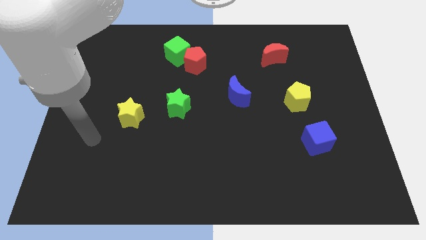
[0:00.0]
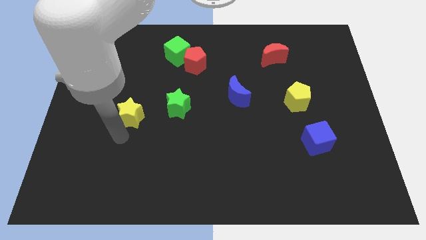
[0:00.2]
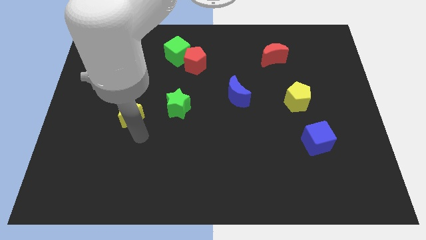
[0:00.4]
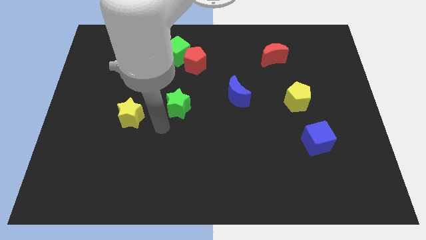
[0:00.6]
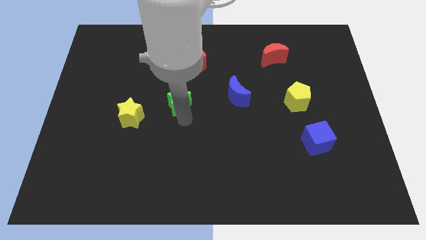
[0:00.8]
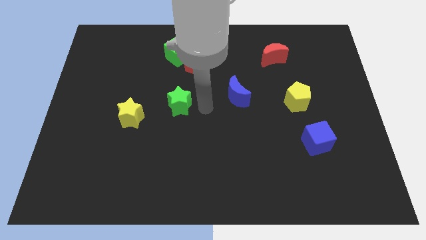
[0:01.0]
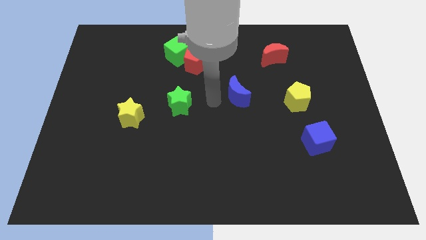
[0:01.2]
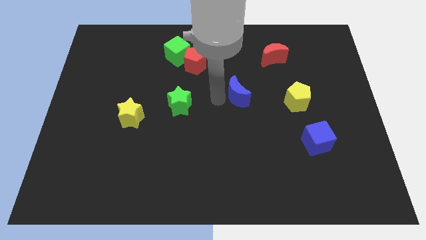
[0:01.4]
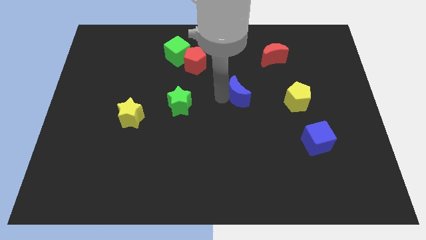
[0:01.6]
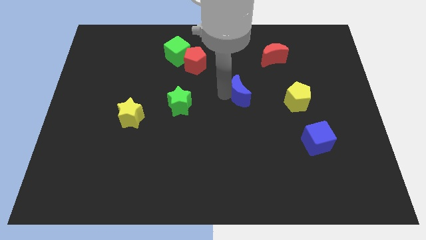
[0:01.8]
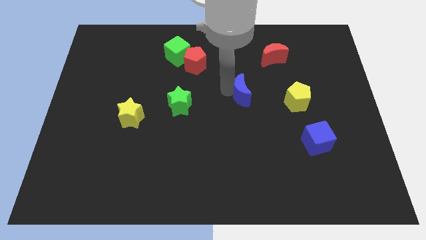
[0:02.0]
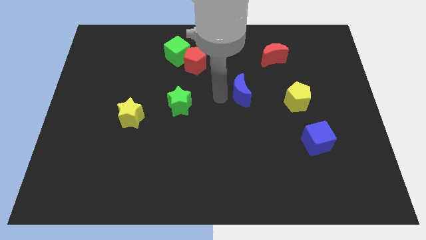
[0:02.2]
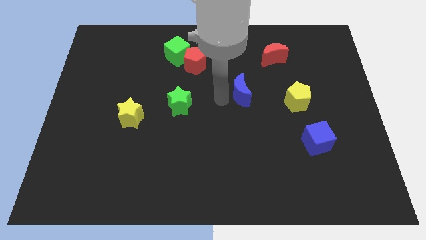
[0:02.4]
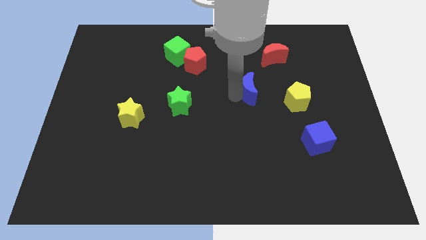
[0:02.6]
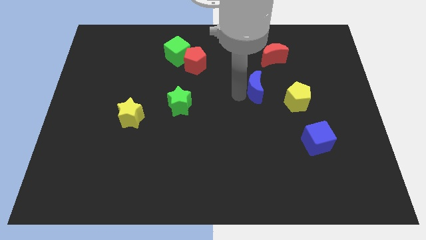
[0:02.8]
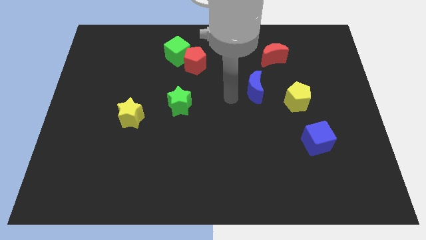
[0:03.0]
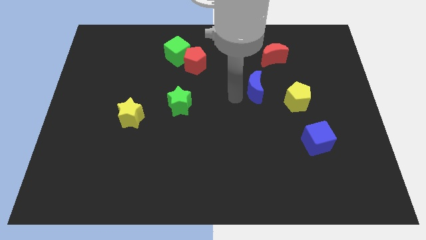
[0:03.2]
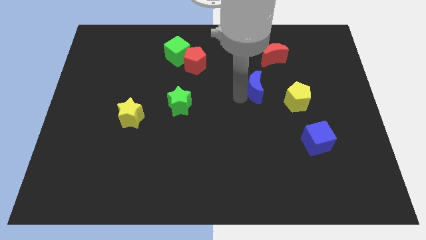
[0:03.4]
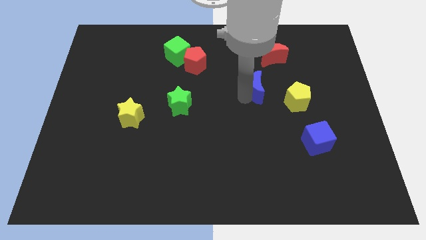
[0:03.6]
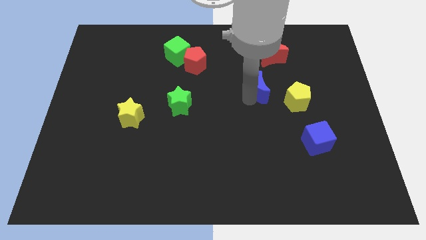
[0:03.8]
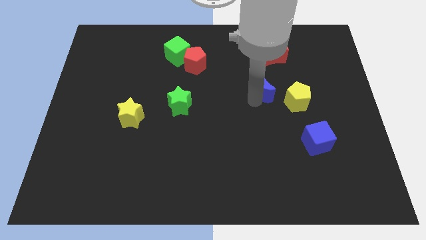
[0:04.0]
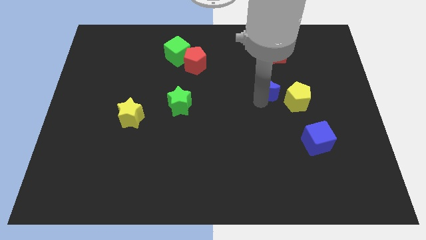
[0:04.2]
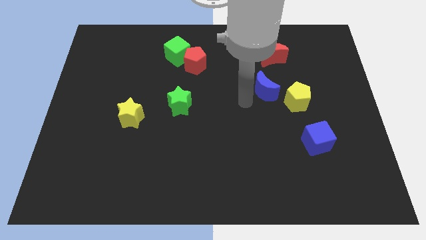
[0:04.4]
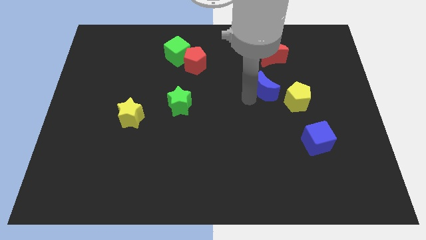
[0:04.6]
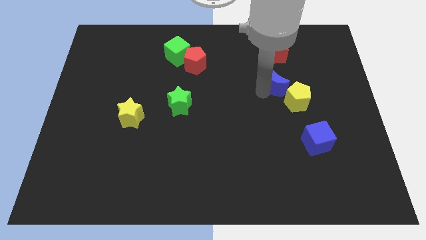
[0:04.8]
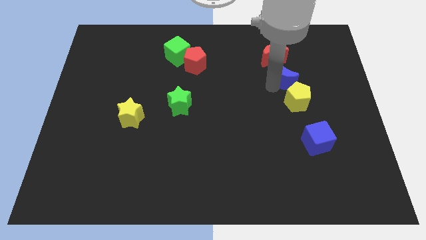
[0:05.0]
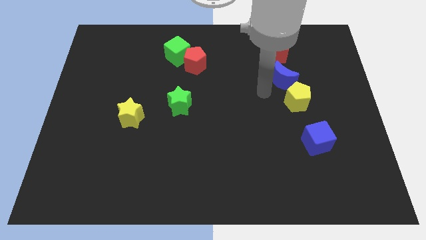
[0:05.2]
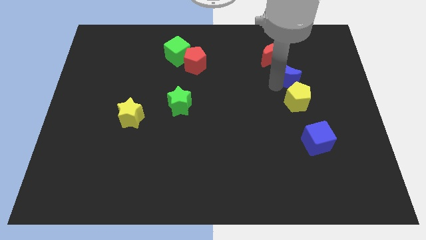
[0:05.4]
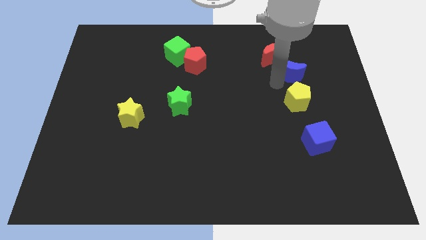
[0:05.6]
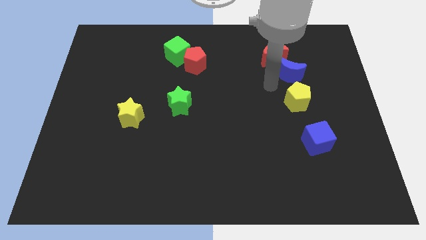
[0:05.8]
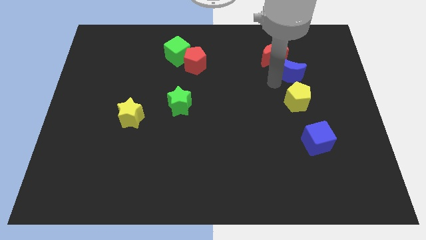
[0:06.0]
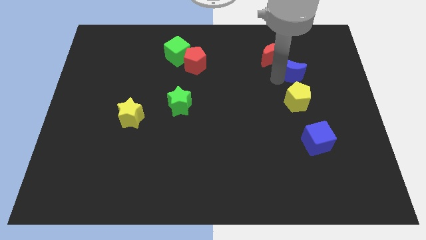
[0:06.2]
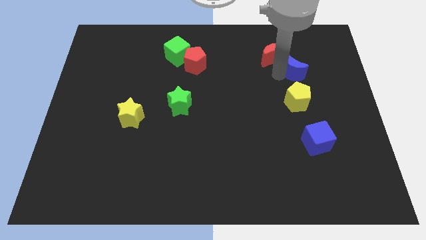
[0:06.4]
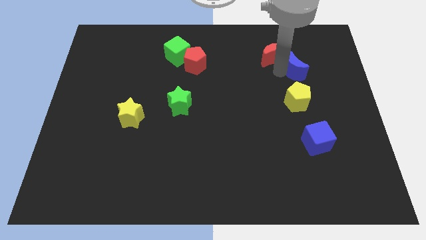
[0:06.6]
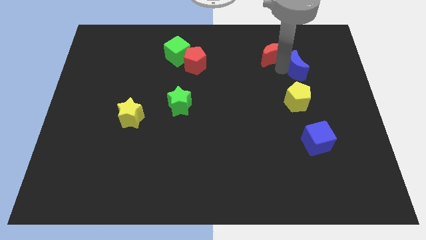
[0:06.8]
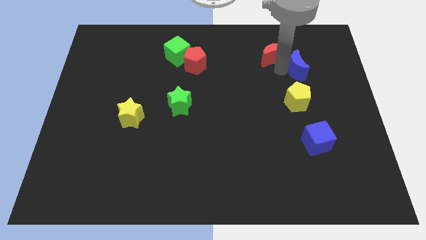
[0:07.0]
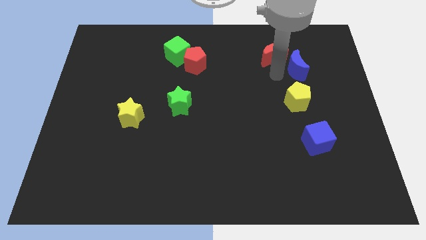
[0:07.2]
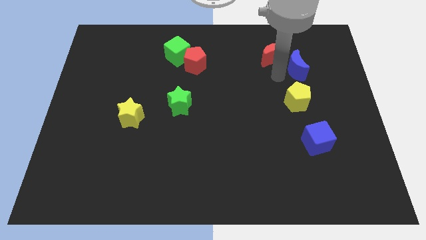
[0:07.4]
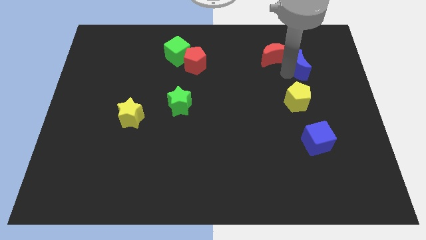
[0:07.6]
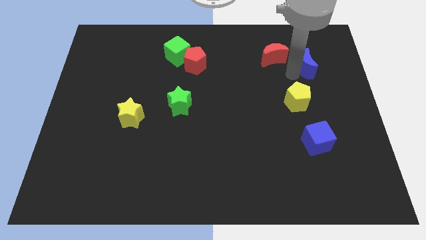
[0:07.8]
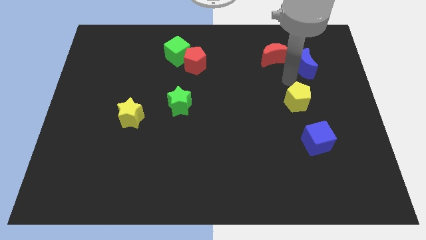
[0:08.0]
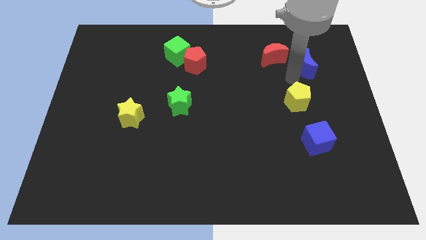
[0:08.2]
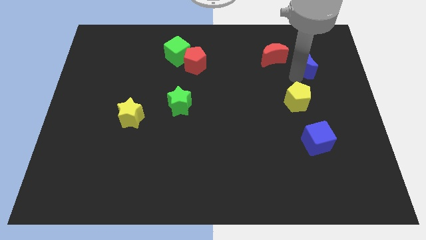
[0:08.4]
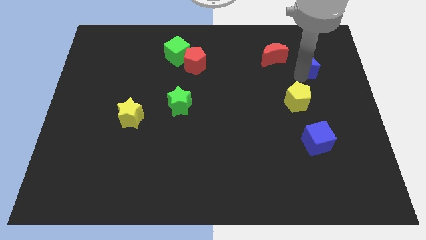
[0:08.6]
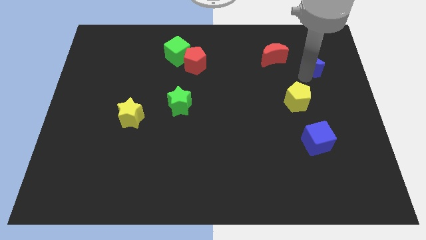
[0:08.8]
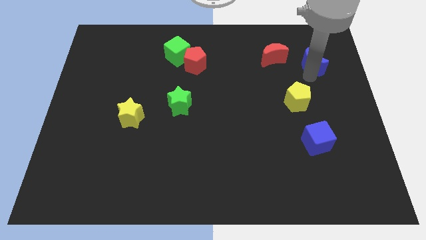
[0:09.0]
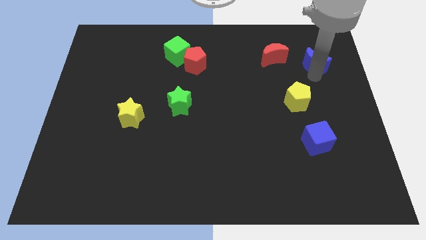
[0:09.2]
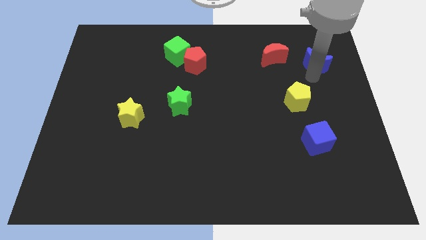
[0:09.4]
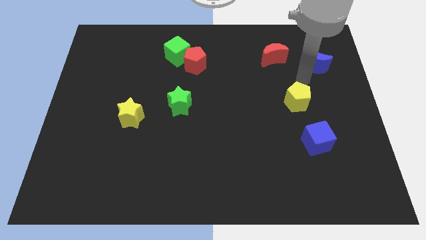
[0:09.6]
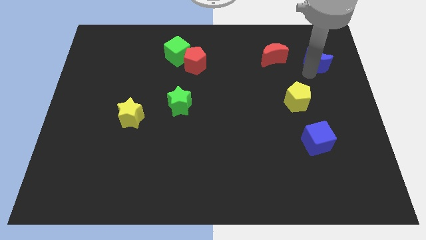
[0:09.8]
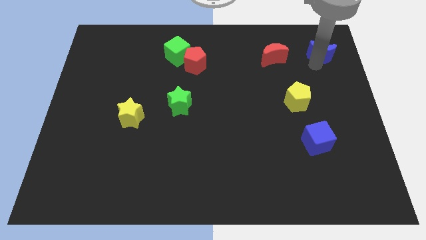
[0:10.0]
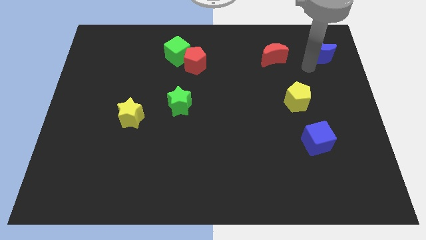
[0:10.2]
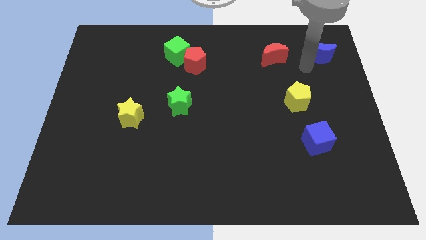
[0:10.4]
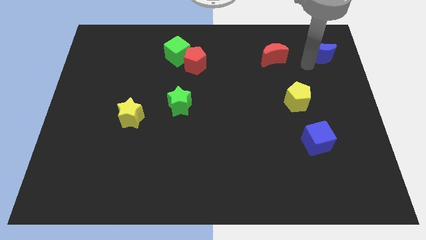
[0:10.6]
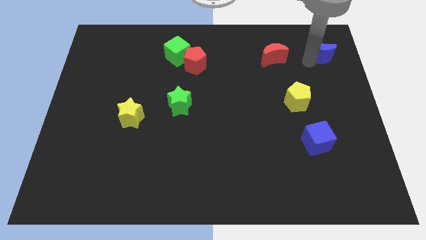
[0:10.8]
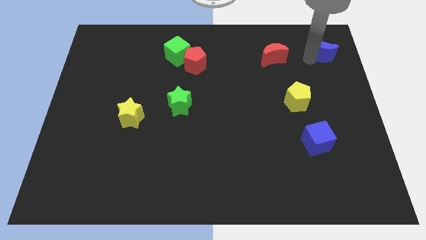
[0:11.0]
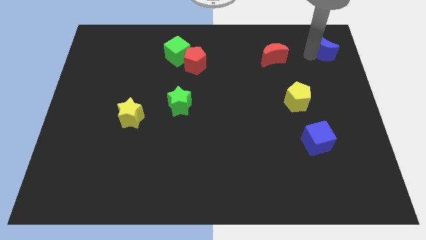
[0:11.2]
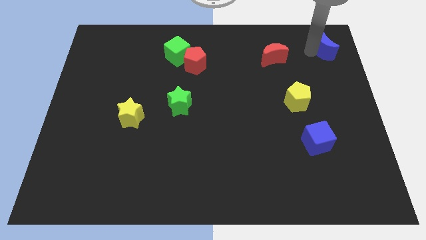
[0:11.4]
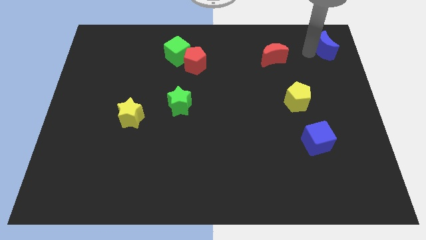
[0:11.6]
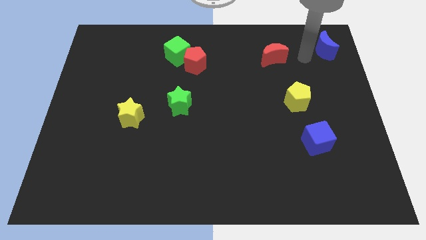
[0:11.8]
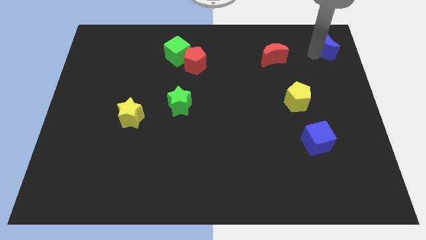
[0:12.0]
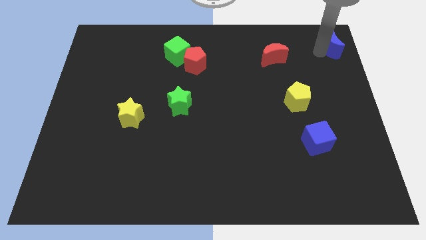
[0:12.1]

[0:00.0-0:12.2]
move the blue moon to the top right corner

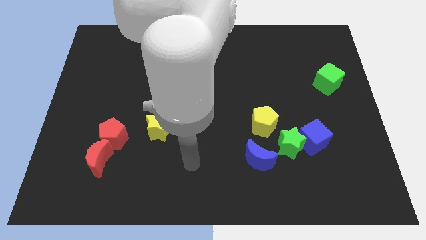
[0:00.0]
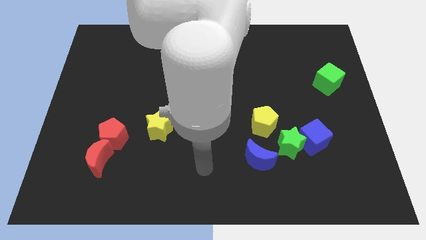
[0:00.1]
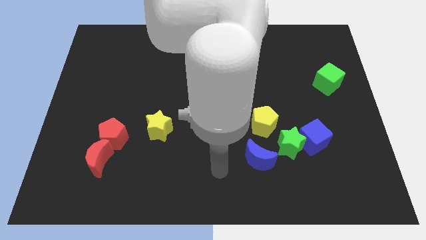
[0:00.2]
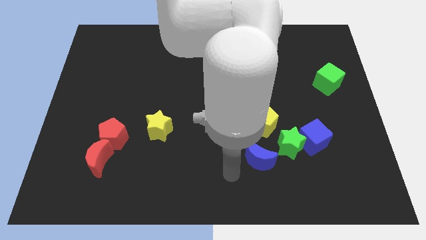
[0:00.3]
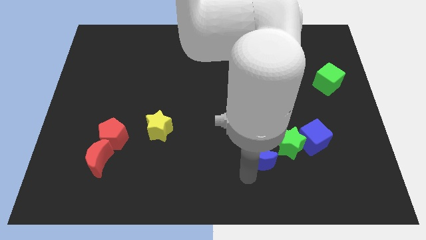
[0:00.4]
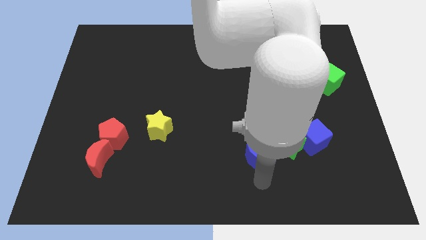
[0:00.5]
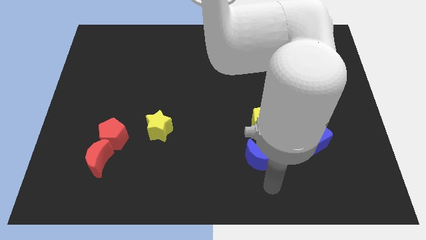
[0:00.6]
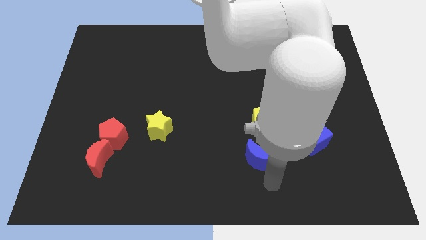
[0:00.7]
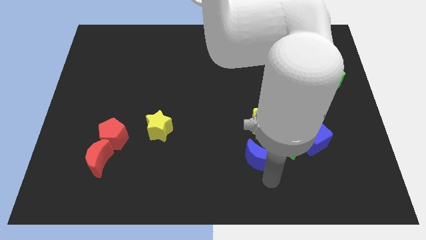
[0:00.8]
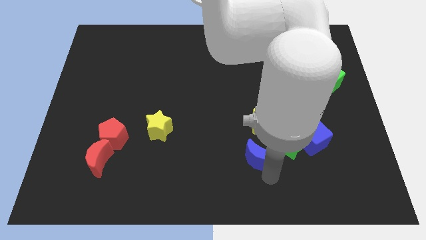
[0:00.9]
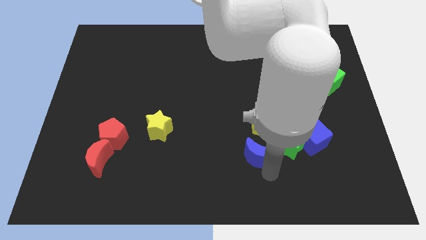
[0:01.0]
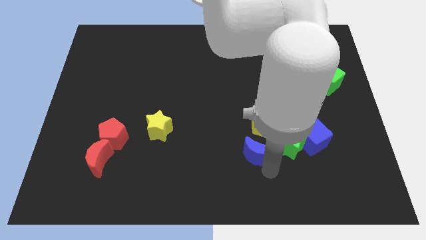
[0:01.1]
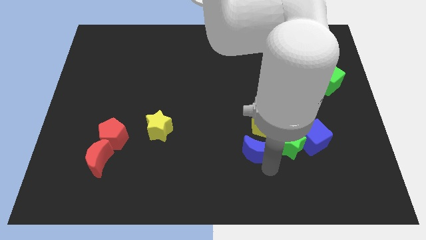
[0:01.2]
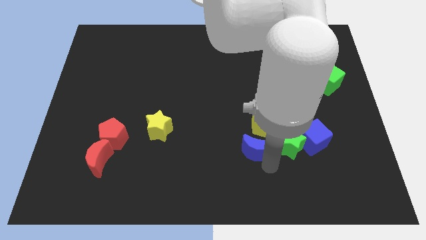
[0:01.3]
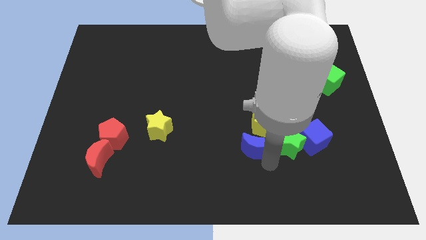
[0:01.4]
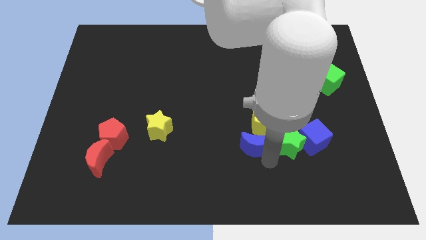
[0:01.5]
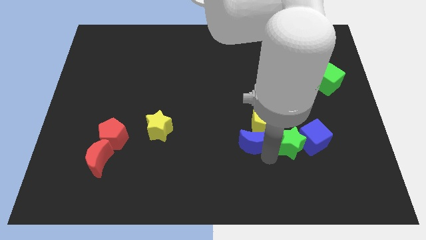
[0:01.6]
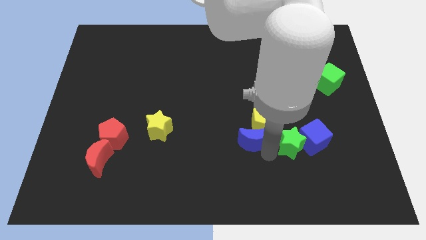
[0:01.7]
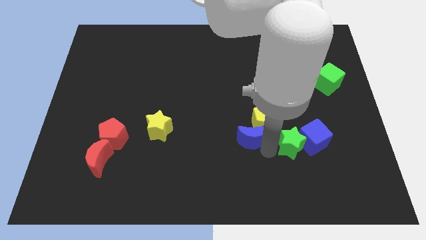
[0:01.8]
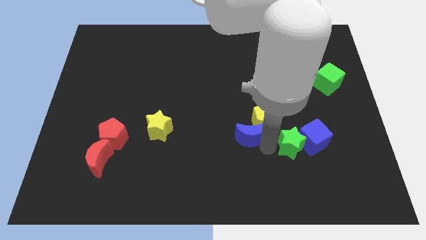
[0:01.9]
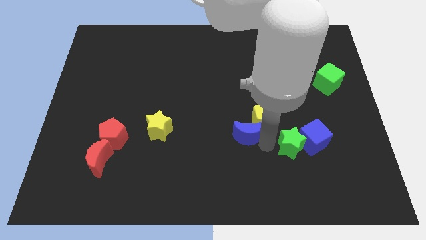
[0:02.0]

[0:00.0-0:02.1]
slide the blue moon to the middle
